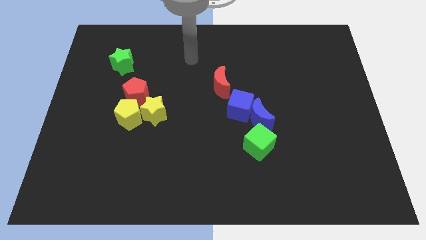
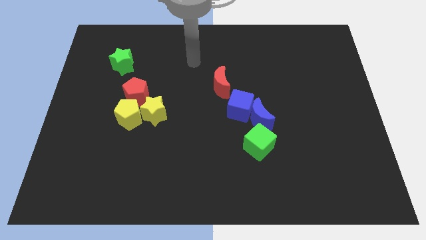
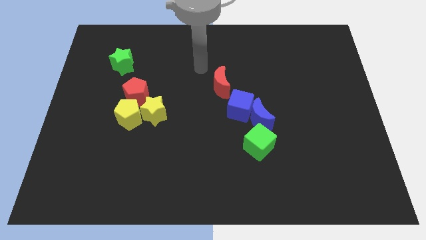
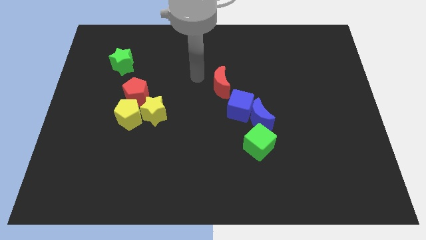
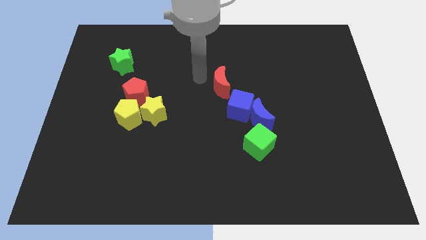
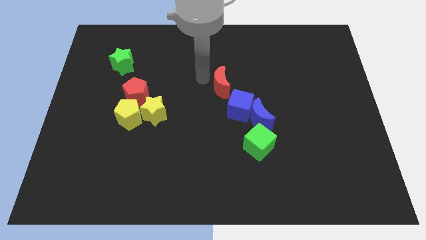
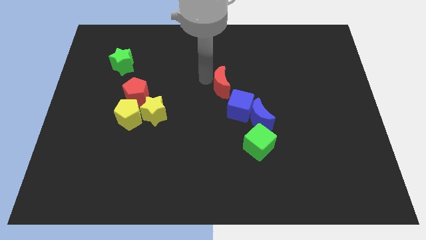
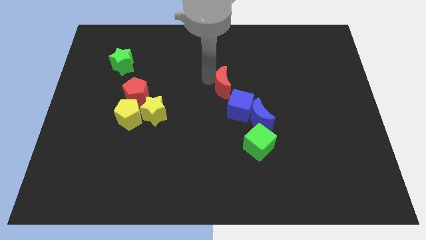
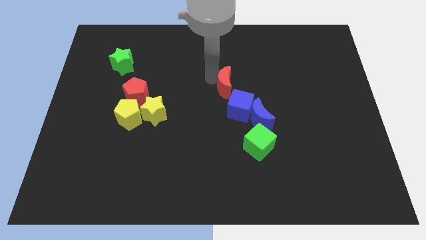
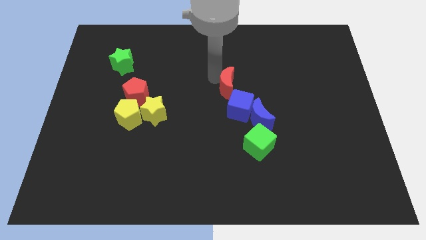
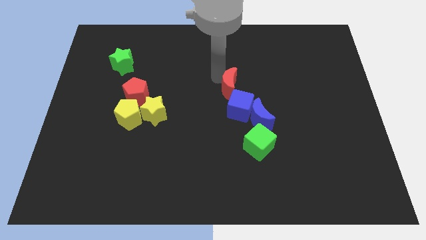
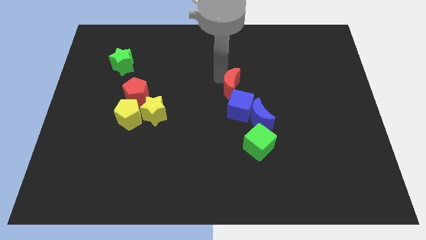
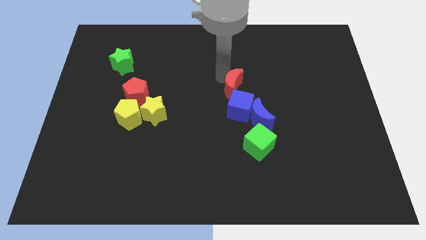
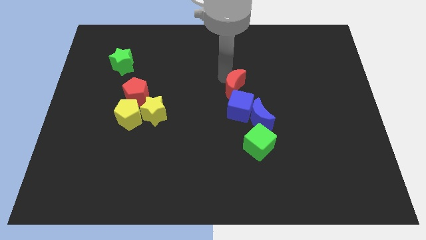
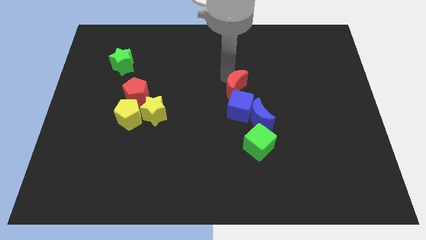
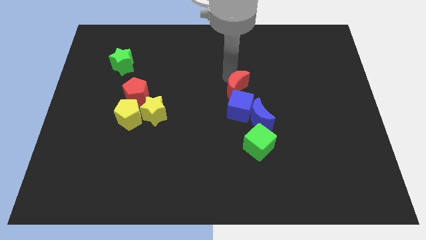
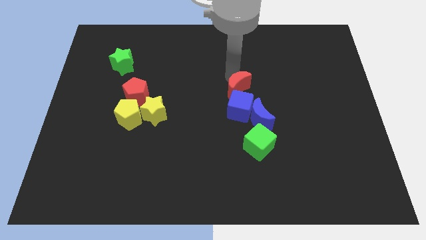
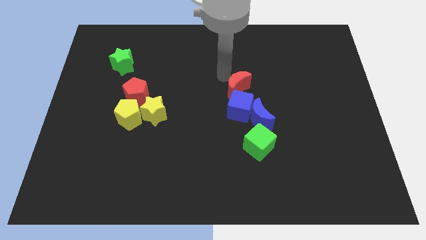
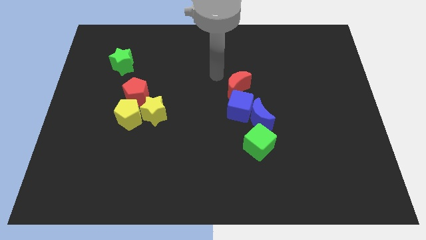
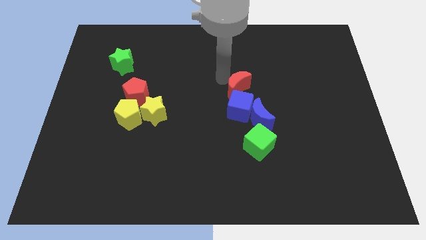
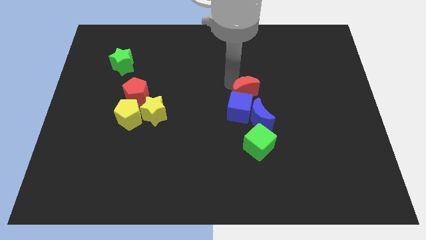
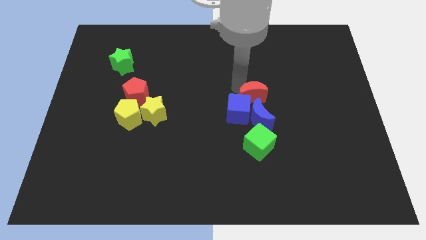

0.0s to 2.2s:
push the red moon a little bit down and right

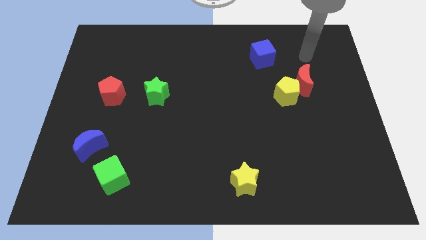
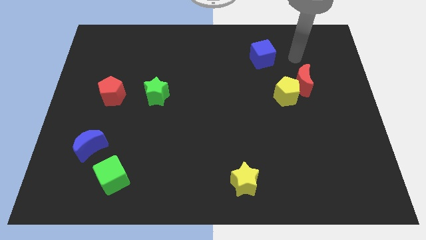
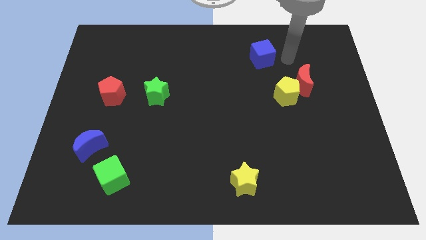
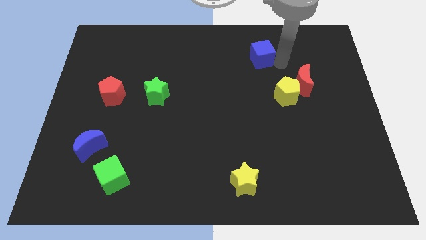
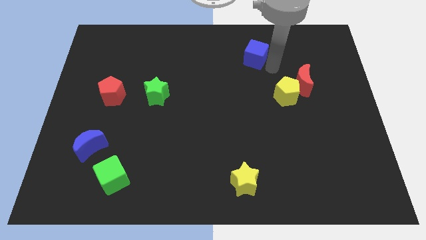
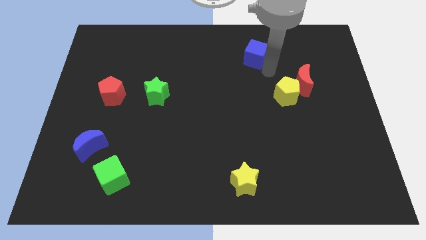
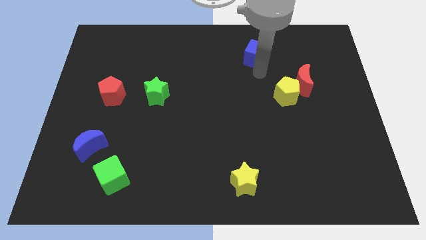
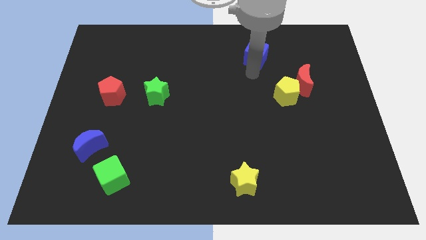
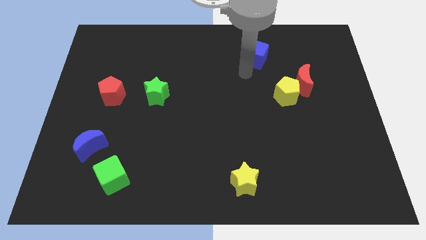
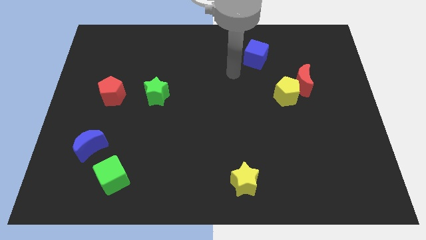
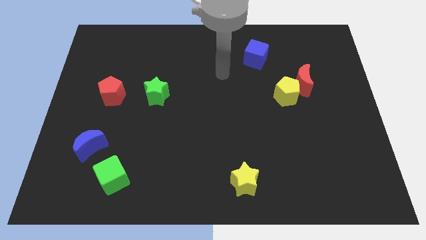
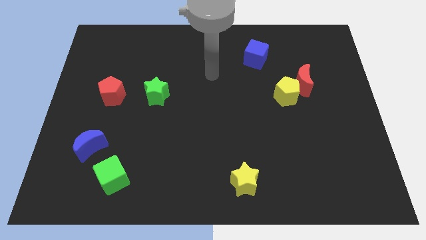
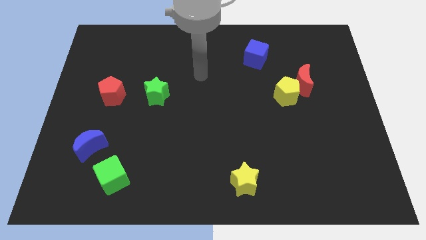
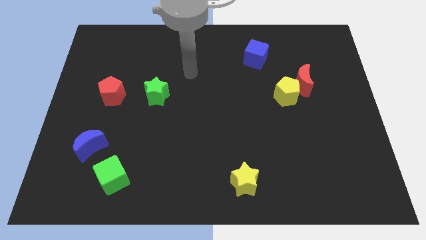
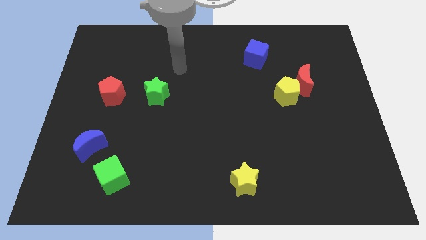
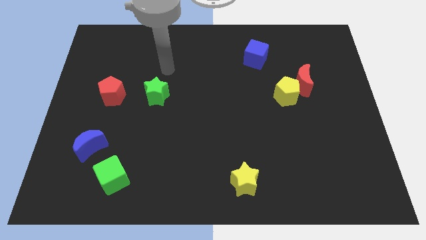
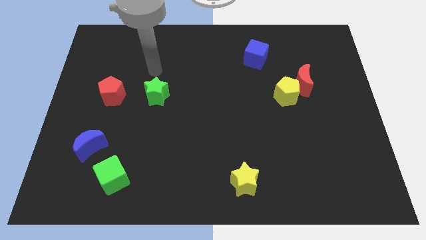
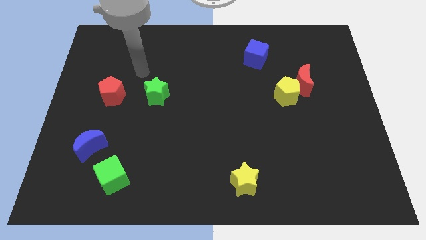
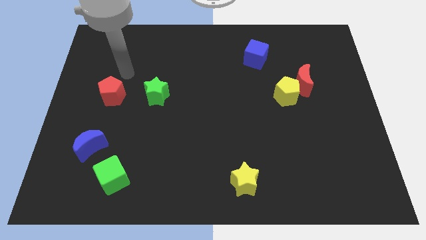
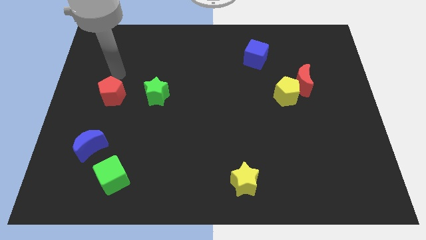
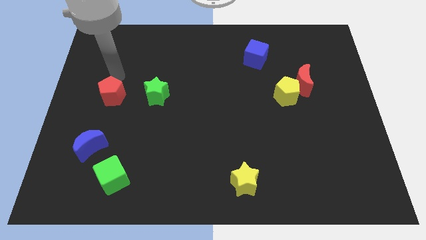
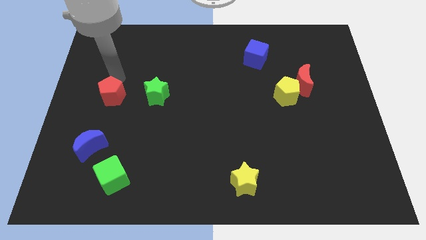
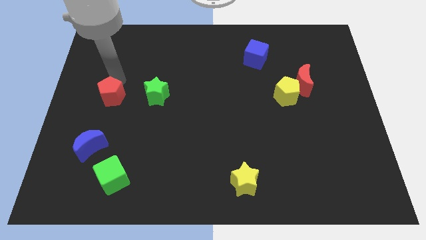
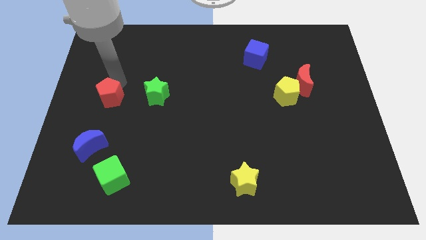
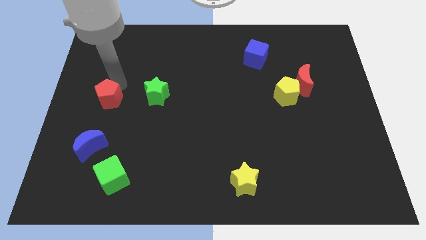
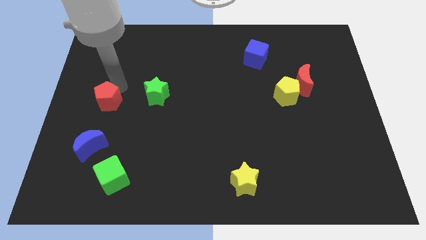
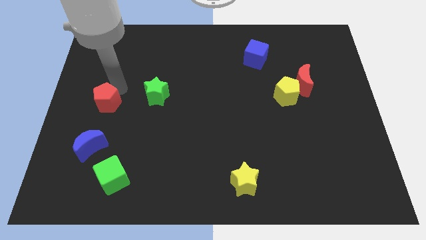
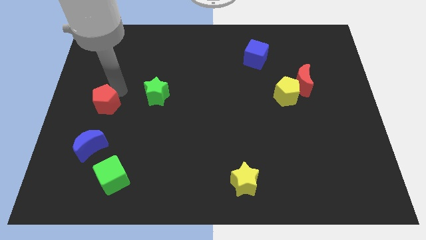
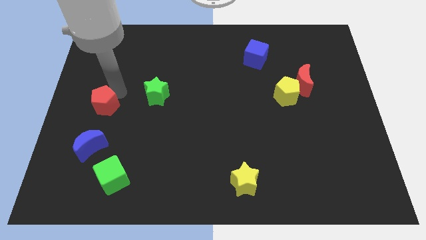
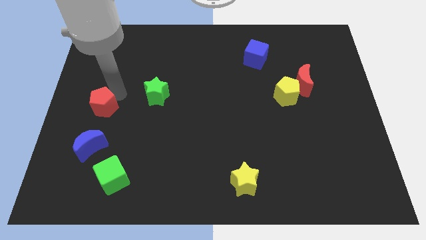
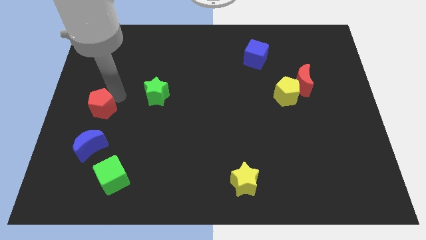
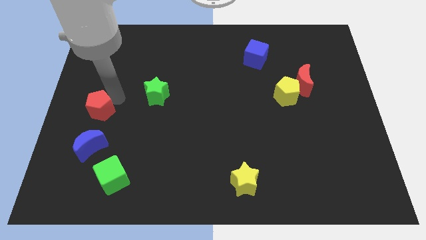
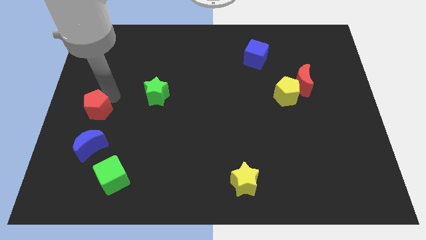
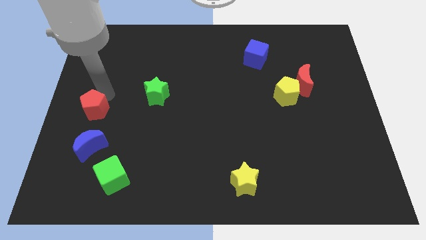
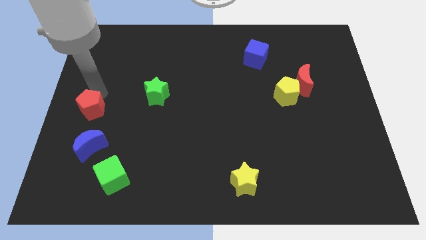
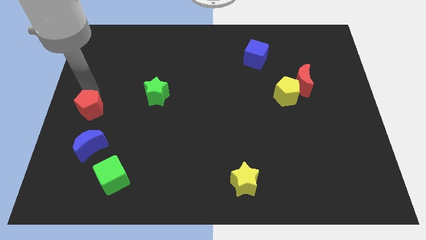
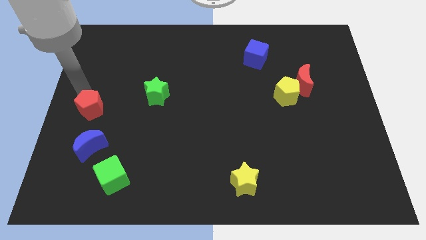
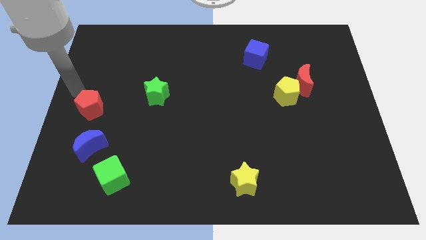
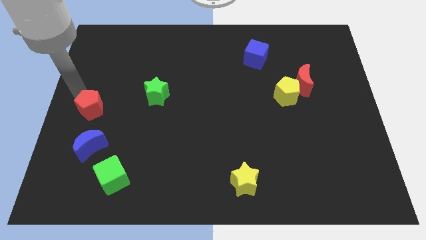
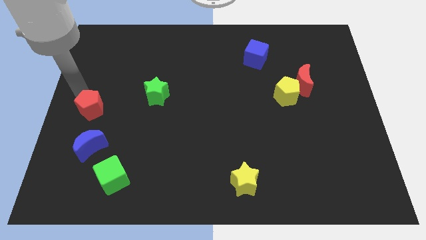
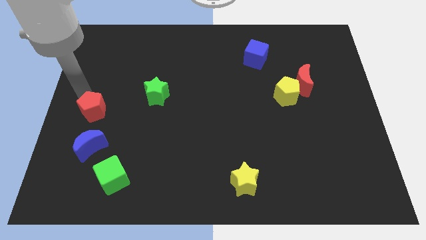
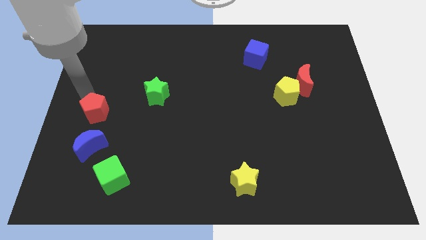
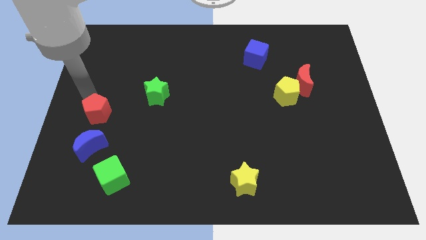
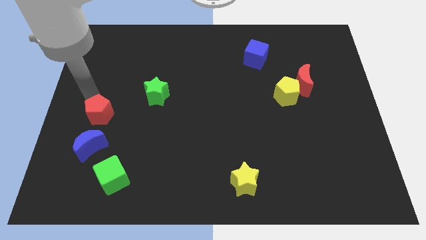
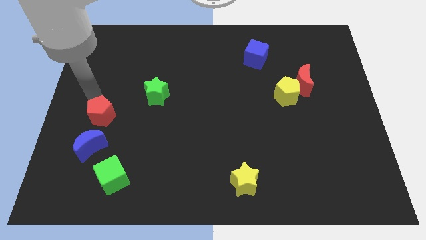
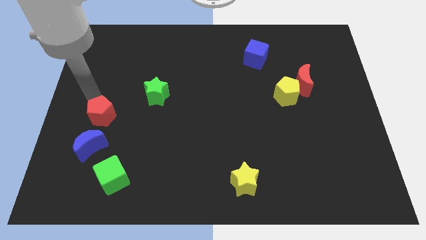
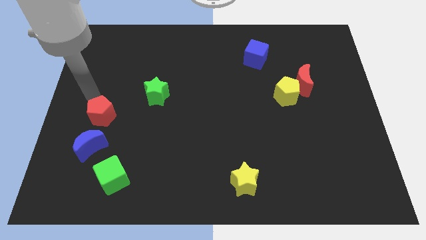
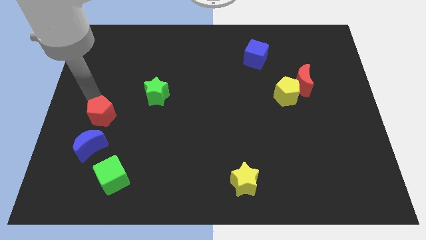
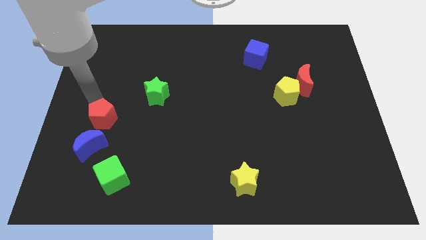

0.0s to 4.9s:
slide the red pentagon downwards slightly

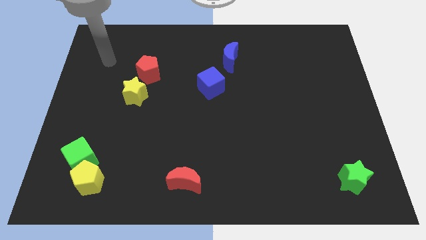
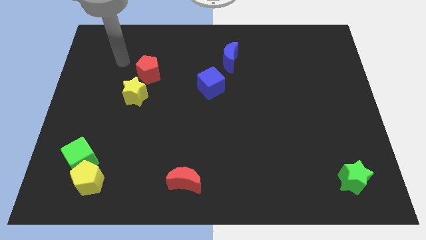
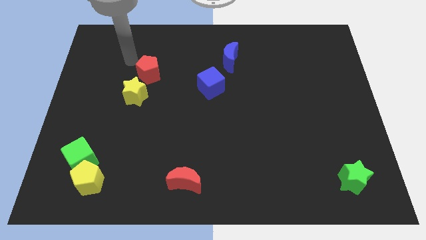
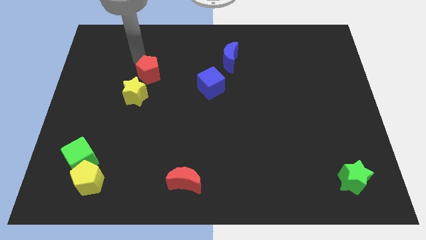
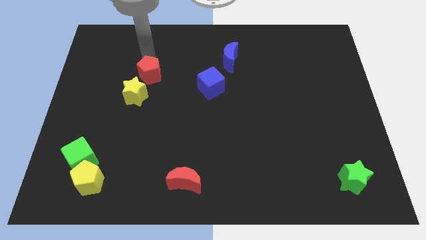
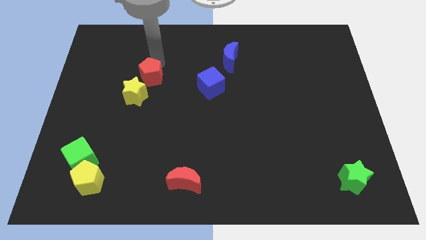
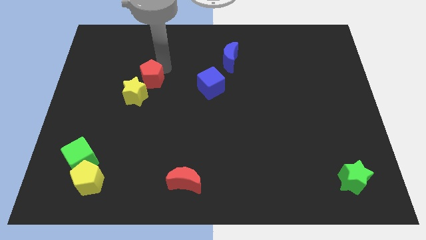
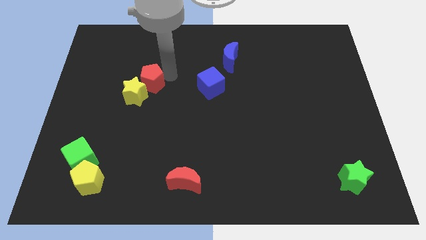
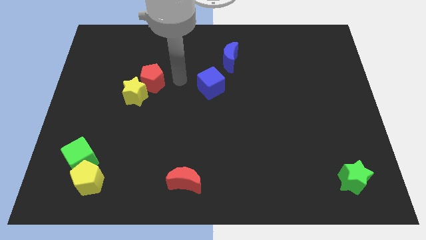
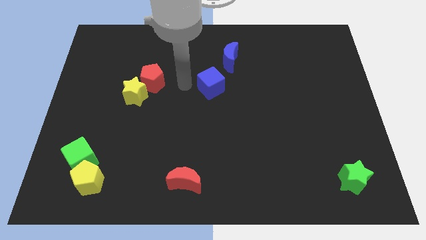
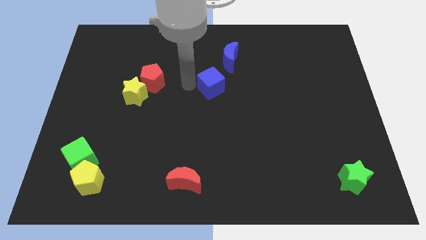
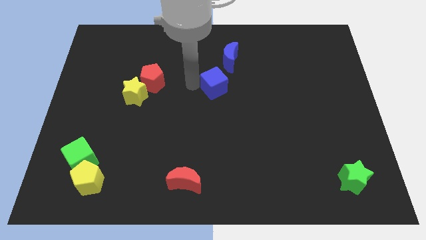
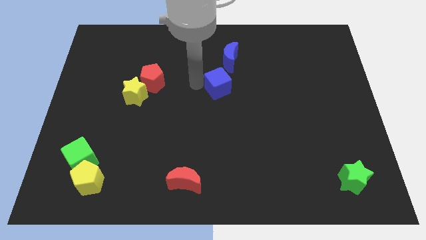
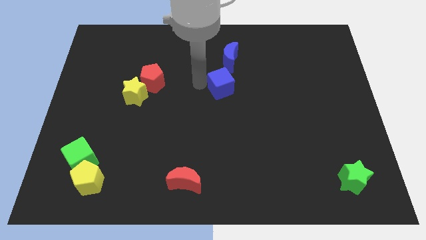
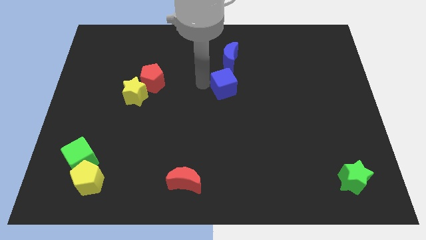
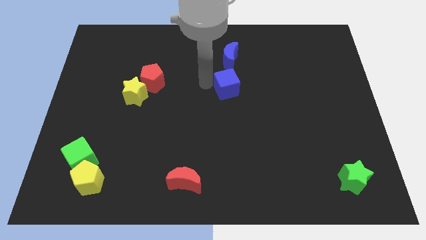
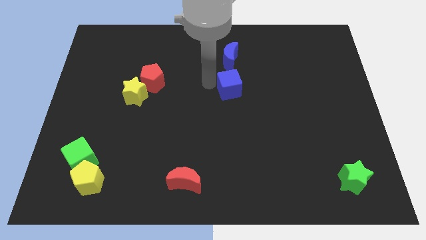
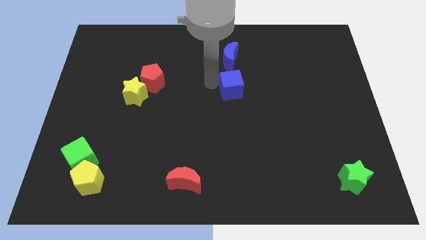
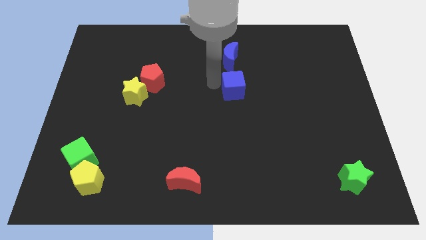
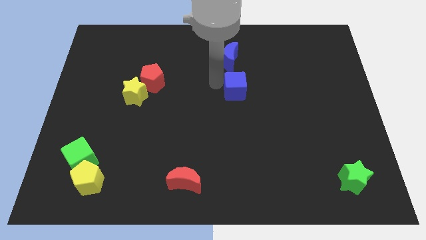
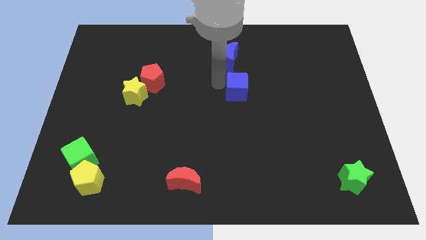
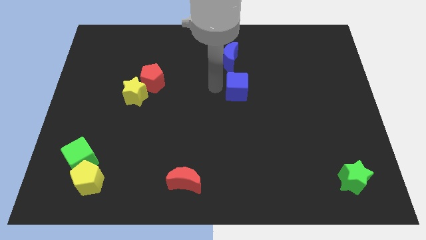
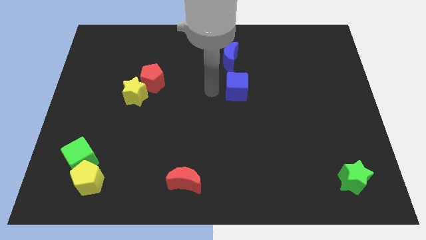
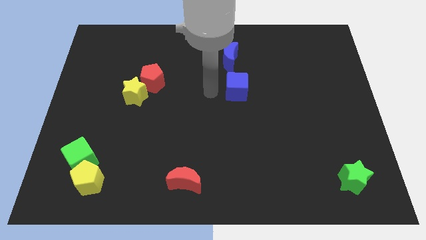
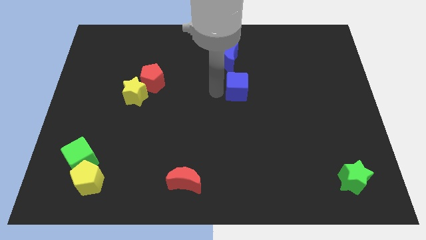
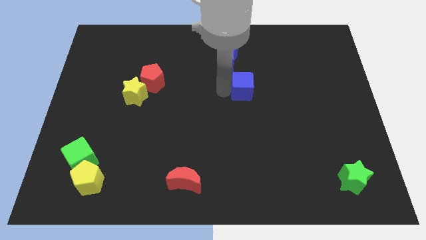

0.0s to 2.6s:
push the blue cube to the right a little
